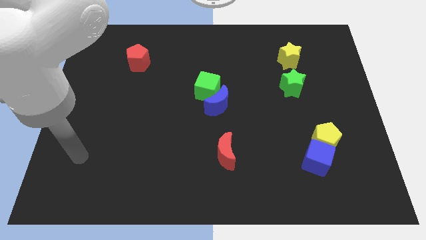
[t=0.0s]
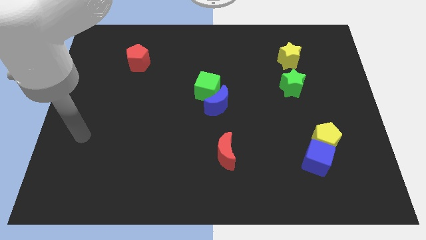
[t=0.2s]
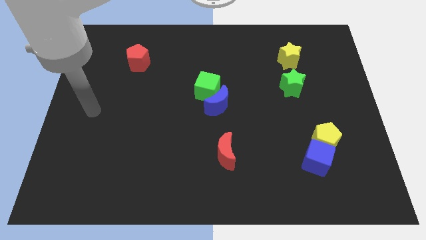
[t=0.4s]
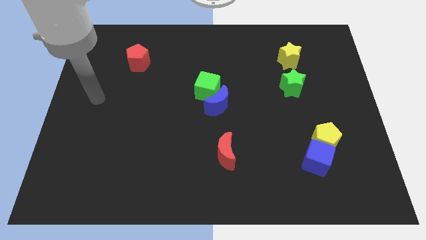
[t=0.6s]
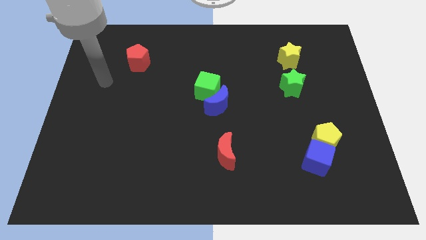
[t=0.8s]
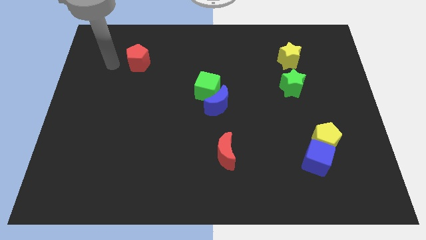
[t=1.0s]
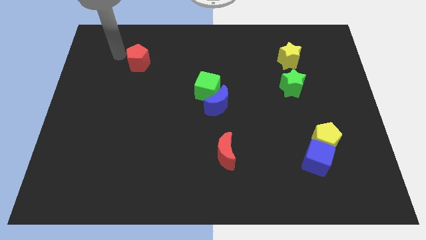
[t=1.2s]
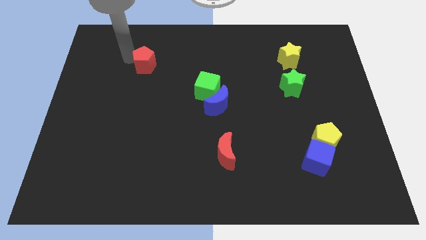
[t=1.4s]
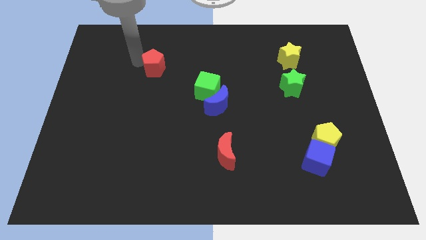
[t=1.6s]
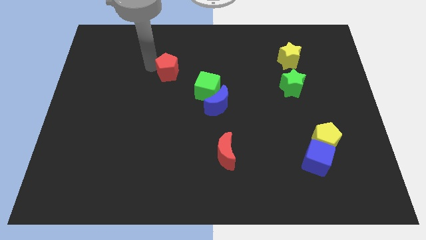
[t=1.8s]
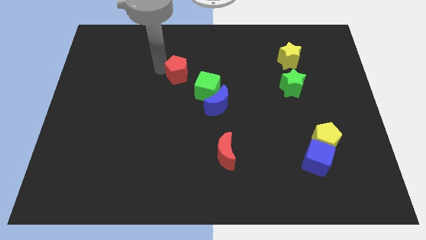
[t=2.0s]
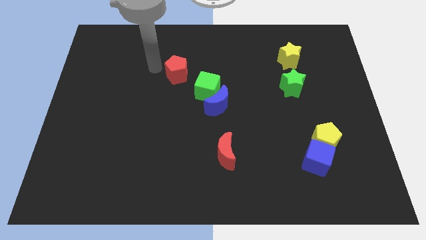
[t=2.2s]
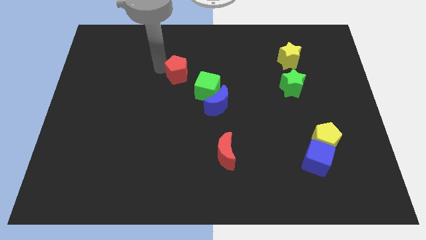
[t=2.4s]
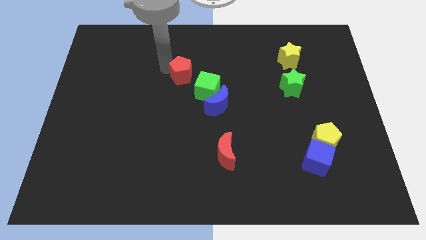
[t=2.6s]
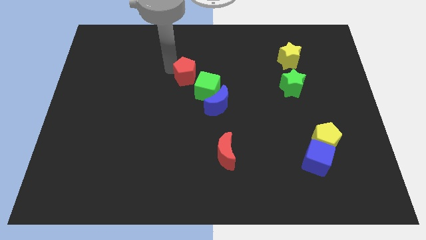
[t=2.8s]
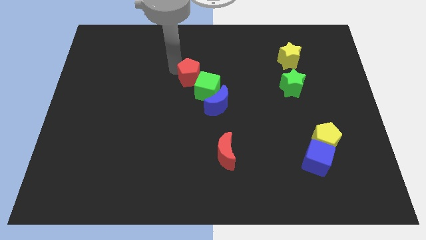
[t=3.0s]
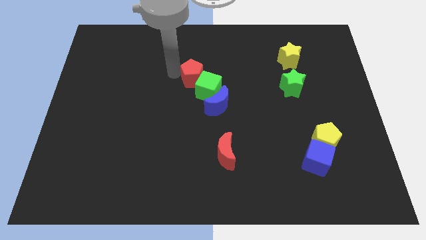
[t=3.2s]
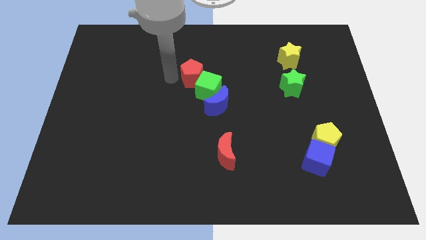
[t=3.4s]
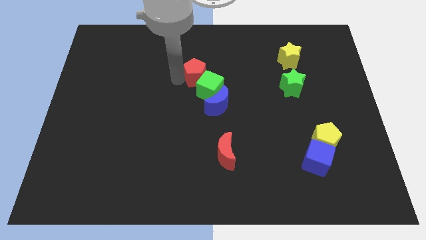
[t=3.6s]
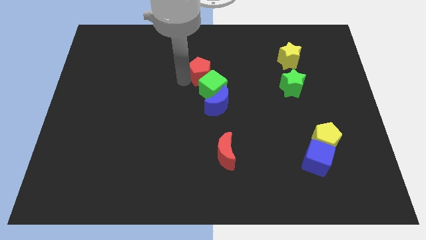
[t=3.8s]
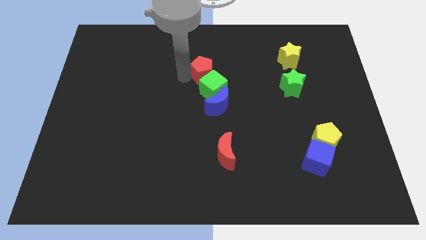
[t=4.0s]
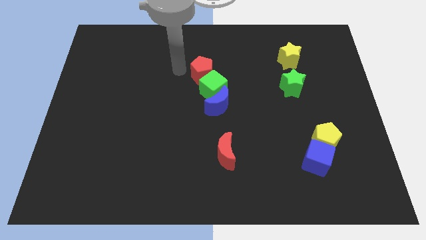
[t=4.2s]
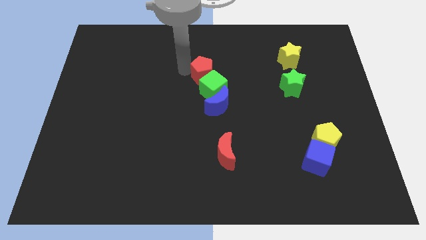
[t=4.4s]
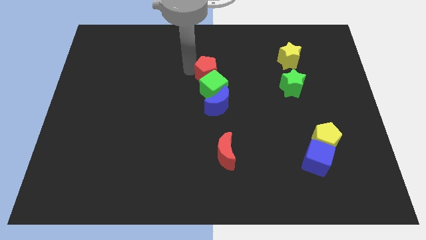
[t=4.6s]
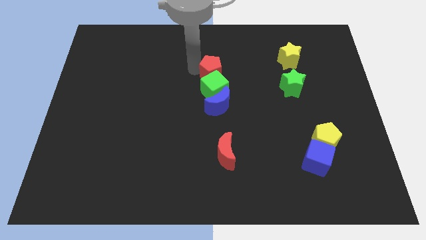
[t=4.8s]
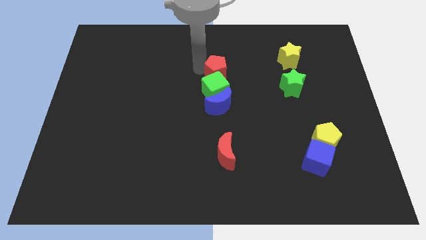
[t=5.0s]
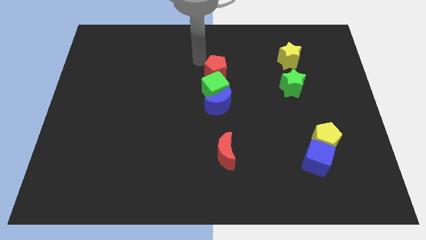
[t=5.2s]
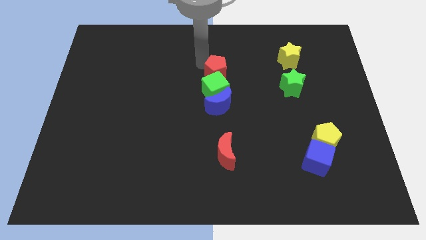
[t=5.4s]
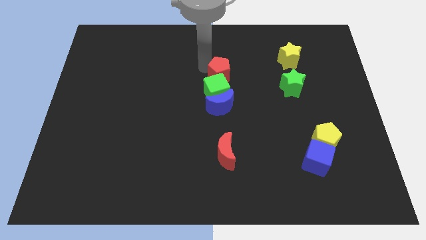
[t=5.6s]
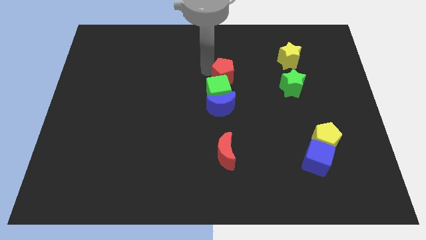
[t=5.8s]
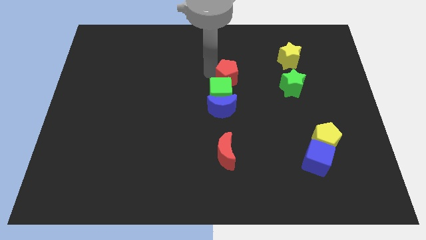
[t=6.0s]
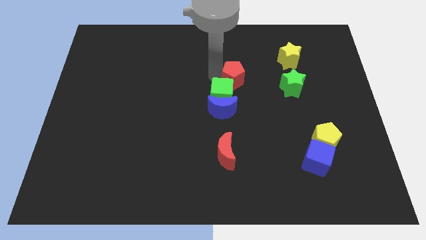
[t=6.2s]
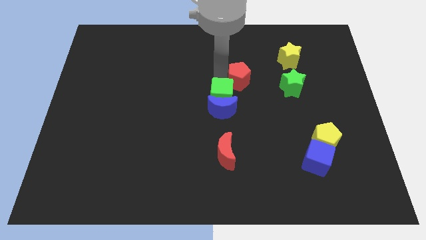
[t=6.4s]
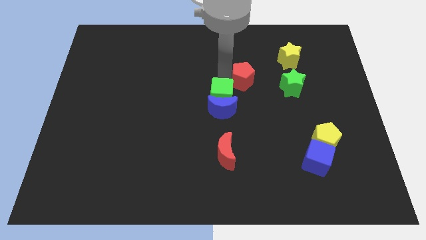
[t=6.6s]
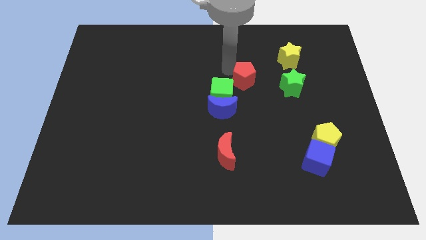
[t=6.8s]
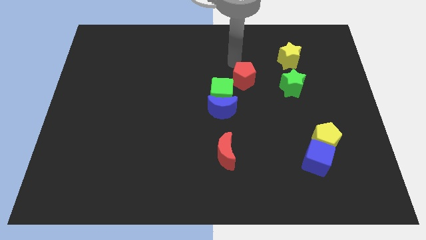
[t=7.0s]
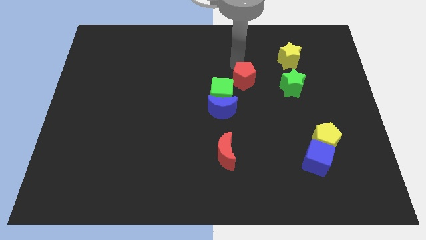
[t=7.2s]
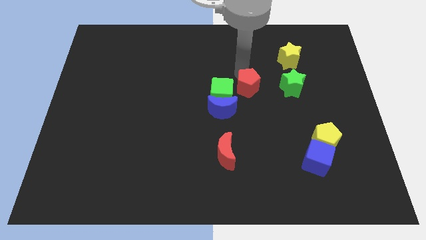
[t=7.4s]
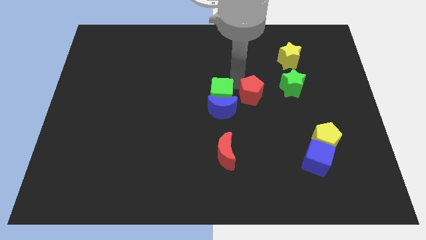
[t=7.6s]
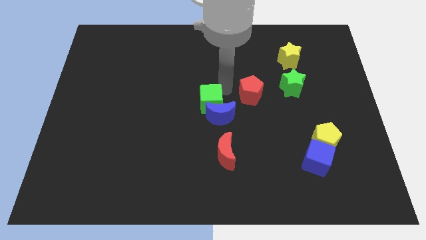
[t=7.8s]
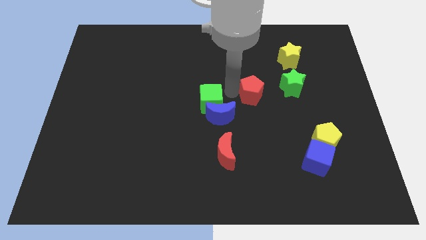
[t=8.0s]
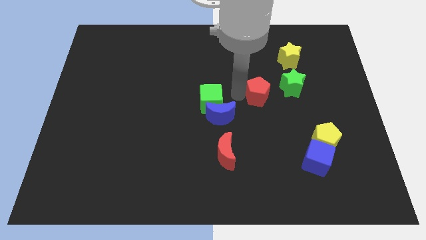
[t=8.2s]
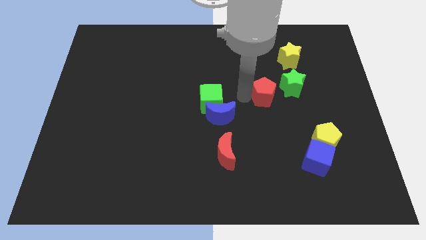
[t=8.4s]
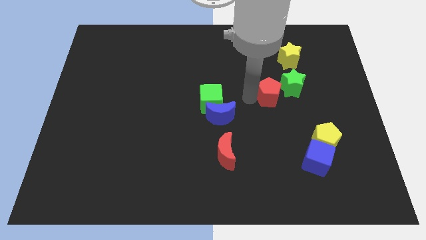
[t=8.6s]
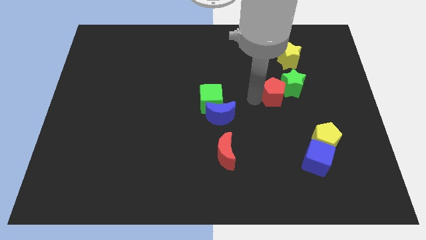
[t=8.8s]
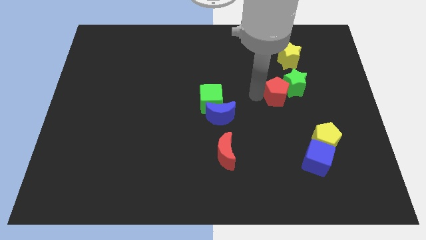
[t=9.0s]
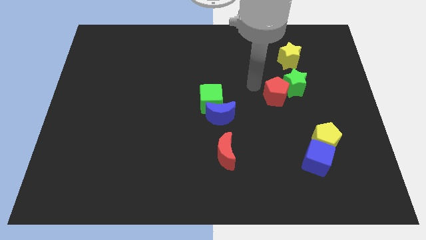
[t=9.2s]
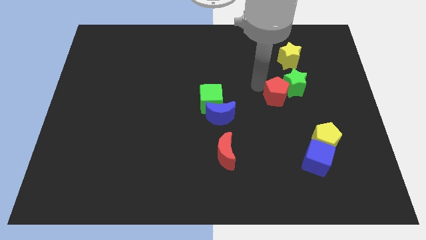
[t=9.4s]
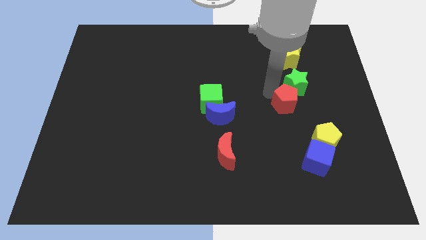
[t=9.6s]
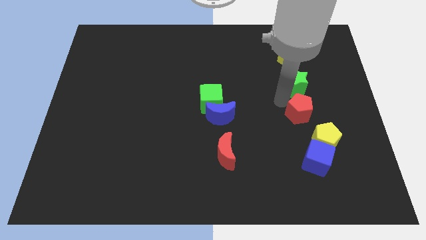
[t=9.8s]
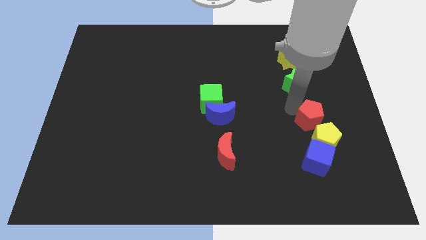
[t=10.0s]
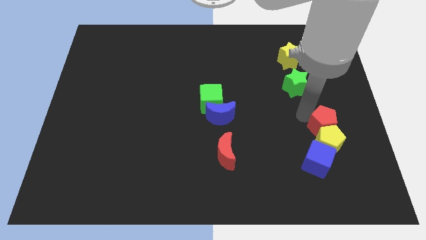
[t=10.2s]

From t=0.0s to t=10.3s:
move the red pentagon diagonally up and to the right of the blue cube

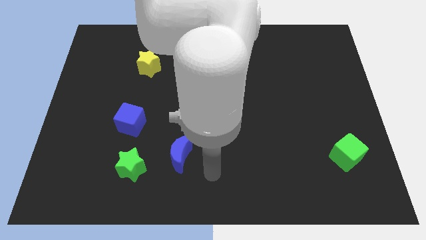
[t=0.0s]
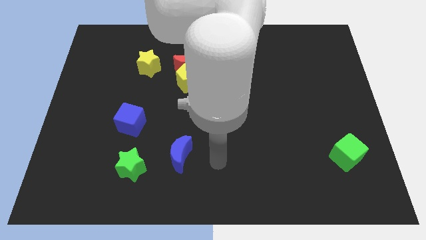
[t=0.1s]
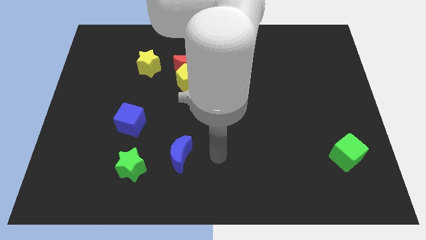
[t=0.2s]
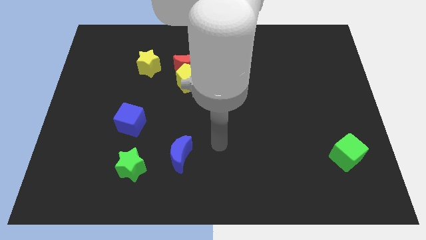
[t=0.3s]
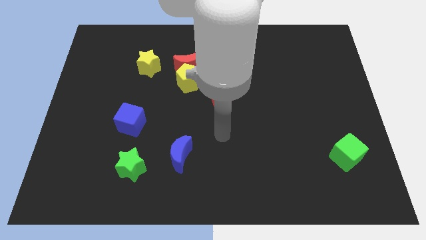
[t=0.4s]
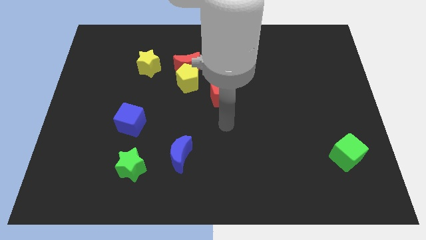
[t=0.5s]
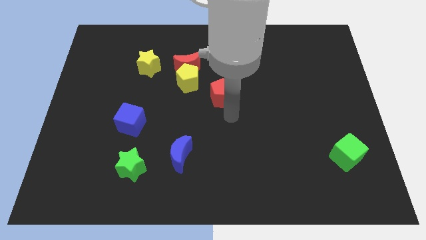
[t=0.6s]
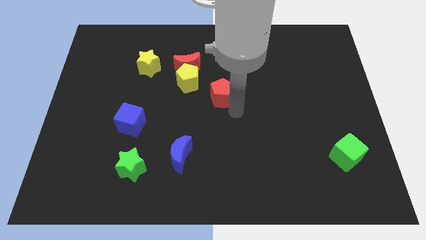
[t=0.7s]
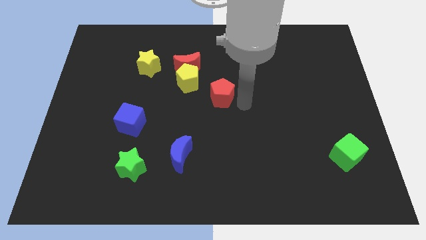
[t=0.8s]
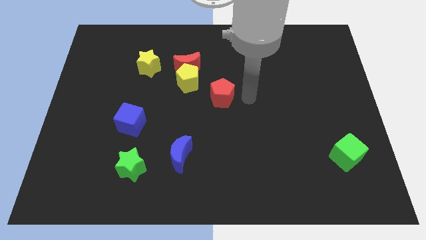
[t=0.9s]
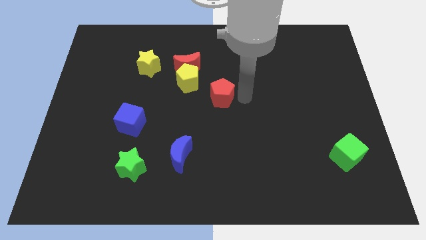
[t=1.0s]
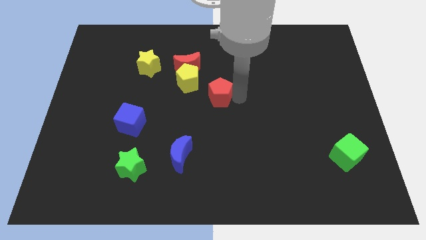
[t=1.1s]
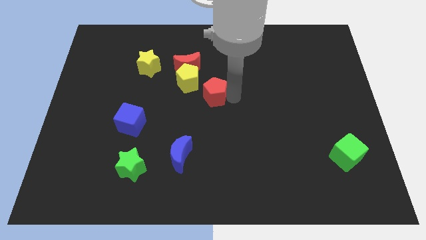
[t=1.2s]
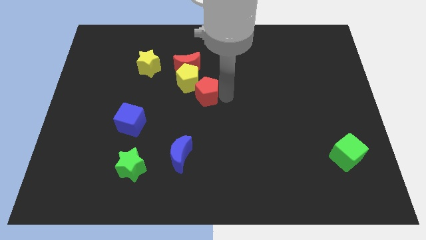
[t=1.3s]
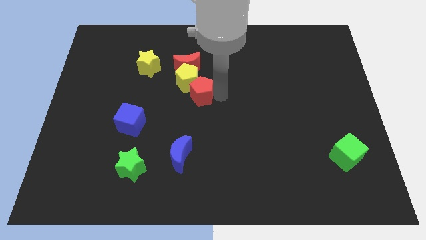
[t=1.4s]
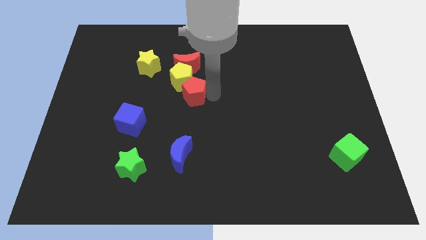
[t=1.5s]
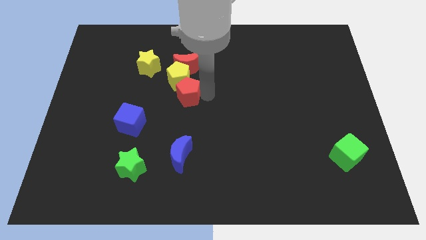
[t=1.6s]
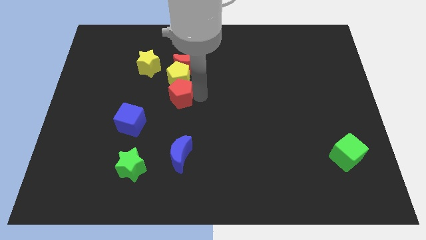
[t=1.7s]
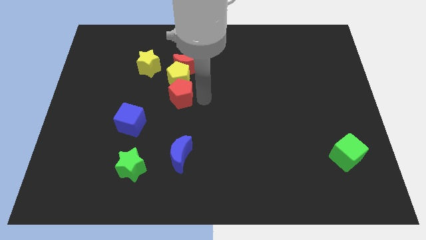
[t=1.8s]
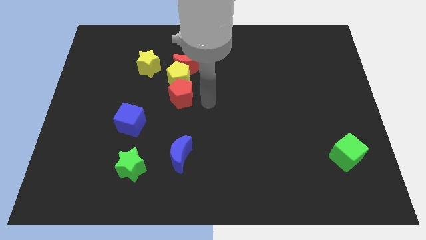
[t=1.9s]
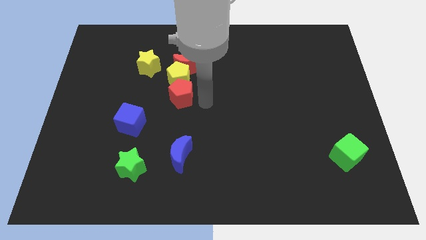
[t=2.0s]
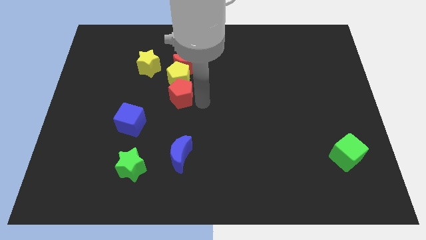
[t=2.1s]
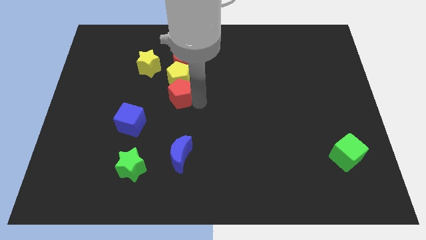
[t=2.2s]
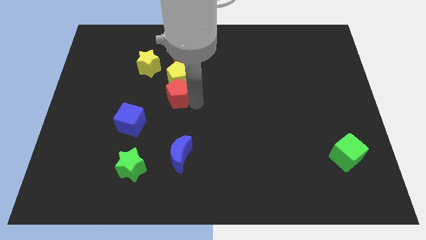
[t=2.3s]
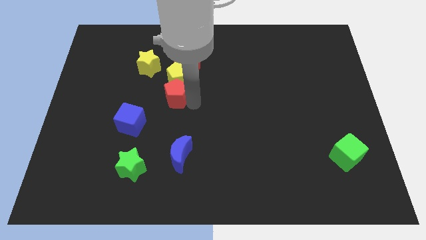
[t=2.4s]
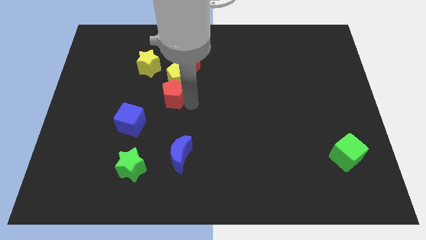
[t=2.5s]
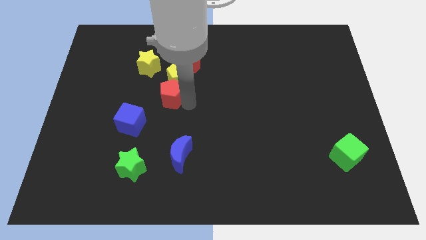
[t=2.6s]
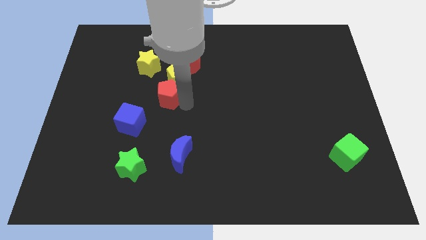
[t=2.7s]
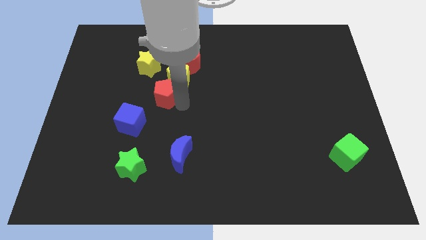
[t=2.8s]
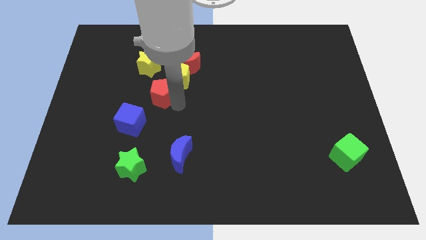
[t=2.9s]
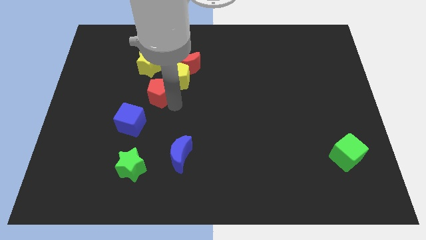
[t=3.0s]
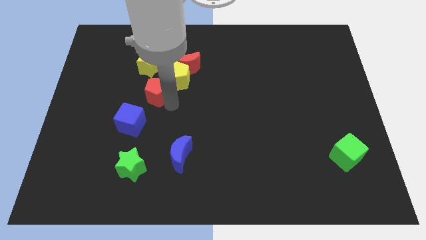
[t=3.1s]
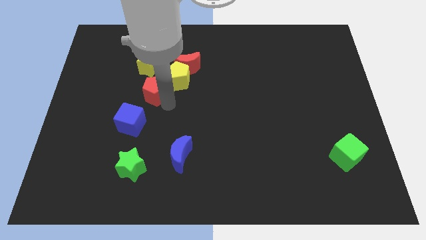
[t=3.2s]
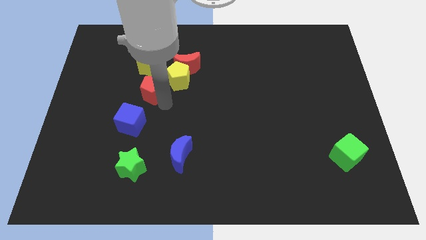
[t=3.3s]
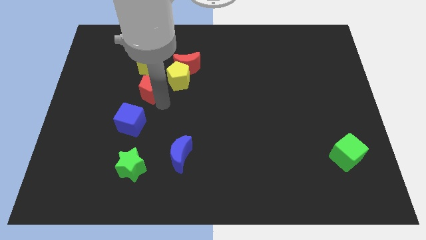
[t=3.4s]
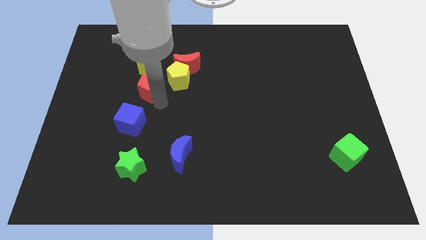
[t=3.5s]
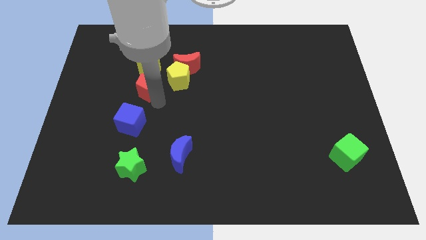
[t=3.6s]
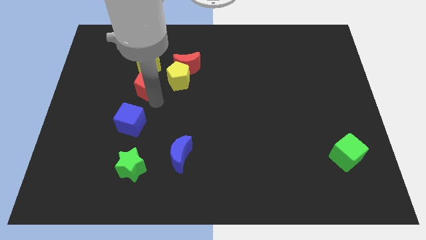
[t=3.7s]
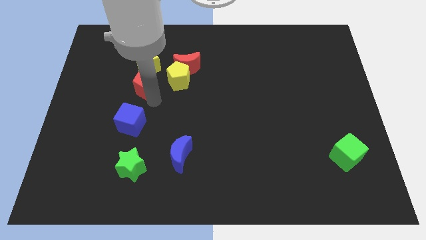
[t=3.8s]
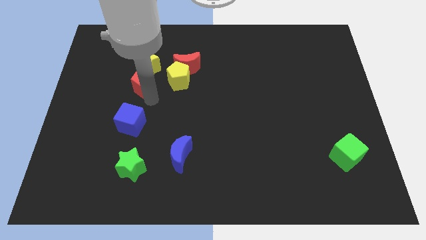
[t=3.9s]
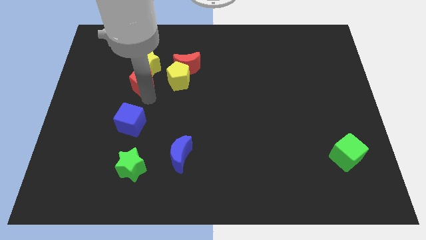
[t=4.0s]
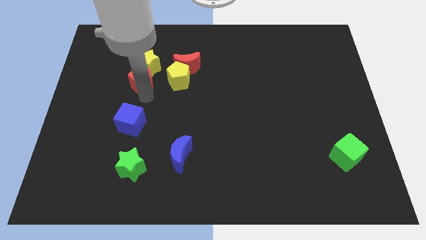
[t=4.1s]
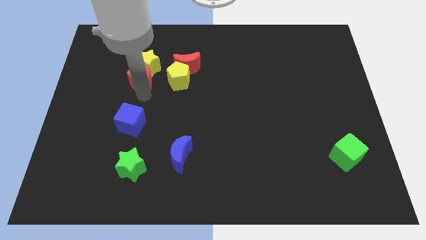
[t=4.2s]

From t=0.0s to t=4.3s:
slide the red pentagon to the left of the red moon
